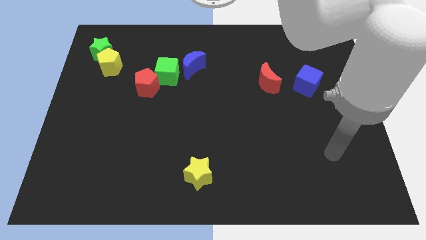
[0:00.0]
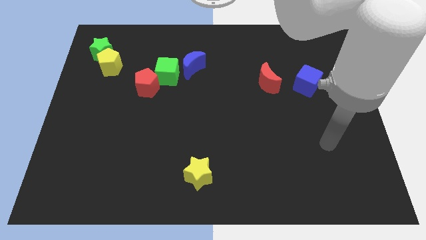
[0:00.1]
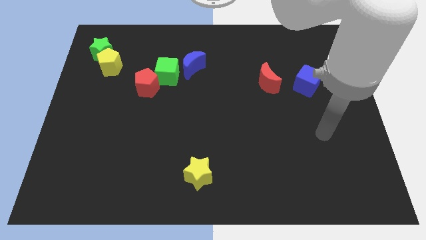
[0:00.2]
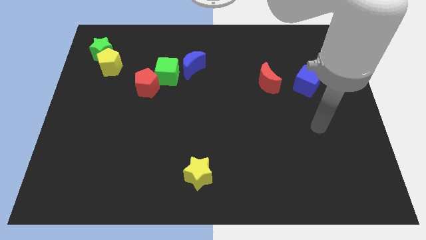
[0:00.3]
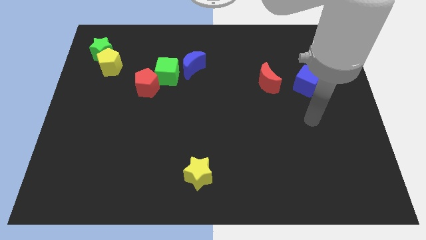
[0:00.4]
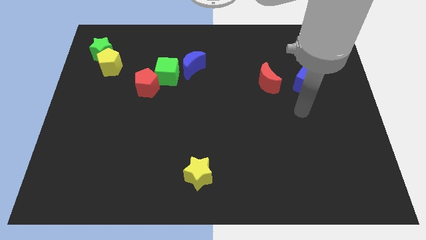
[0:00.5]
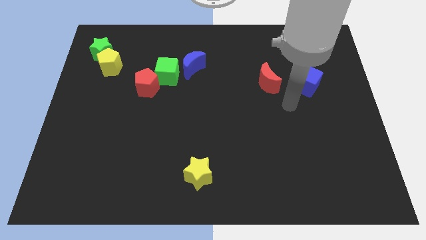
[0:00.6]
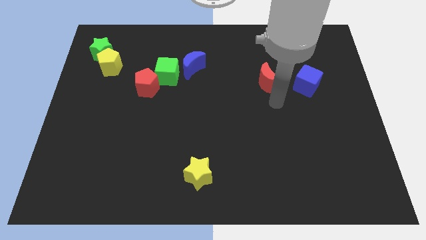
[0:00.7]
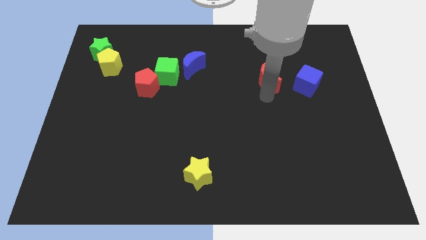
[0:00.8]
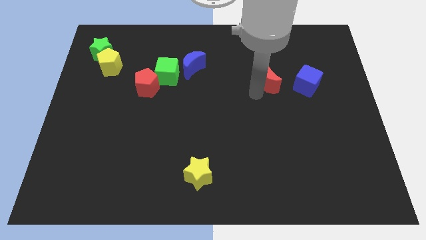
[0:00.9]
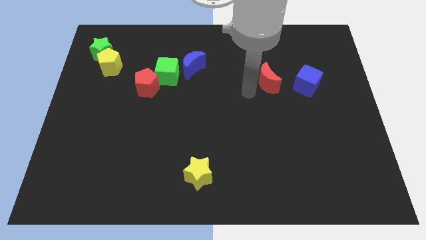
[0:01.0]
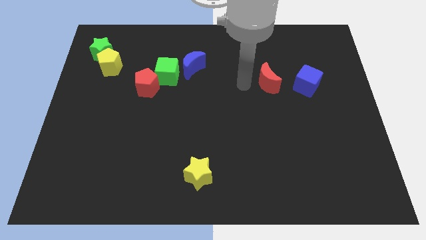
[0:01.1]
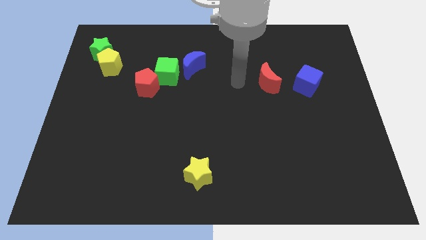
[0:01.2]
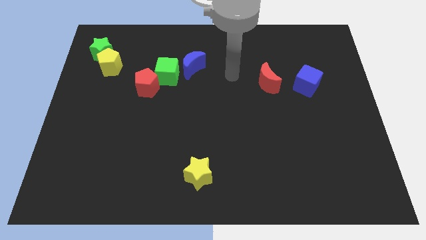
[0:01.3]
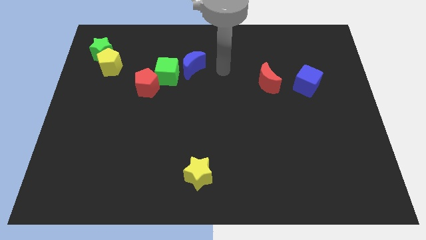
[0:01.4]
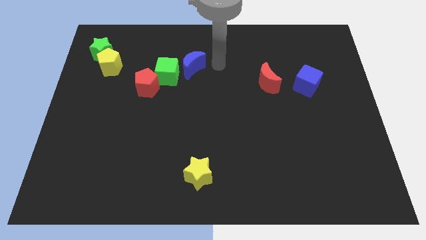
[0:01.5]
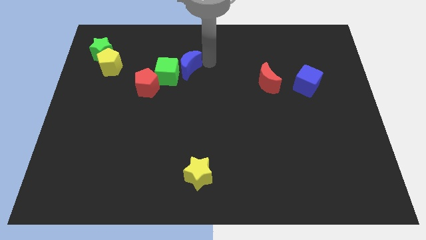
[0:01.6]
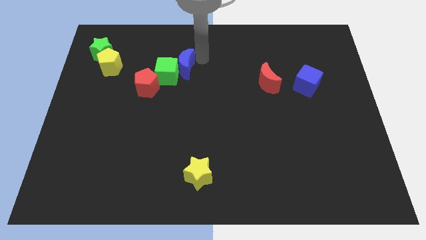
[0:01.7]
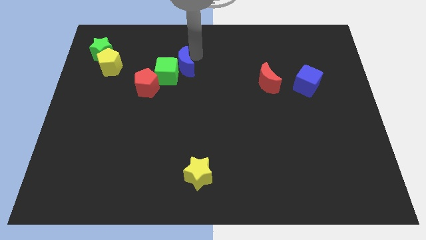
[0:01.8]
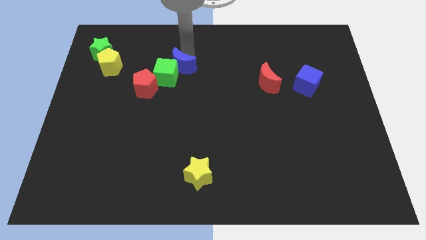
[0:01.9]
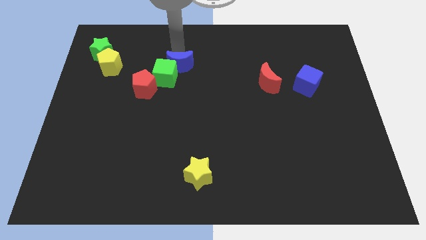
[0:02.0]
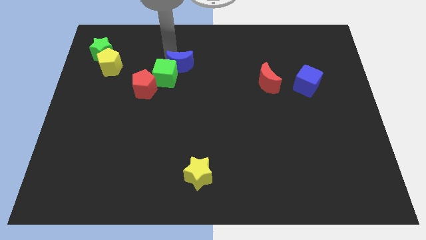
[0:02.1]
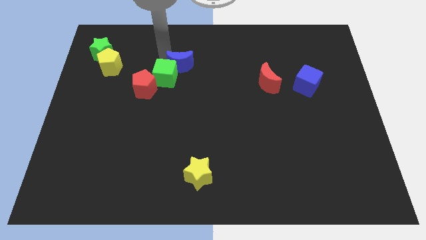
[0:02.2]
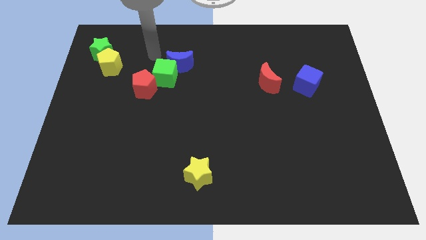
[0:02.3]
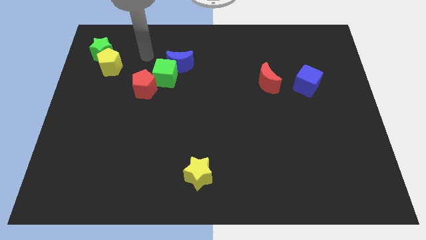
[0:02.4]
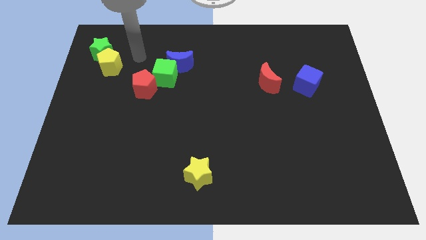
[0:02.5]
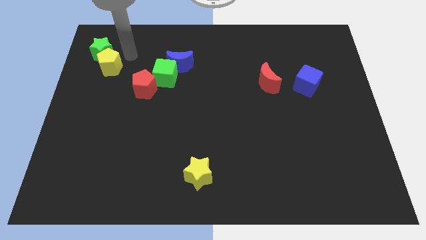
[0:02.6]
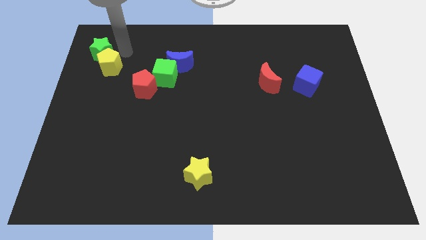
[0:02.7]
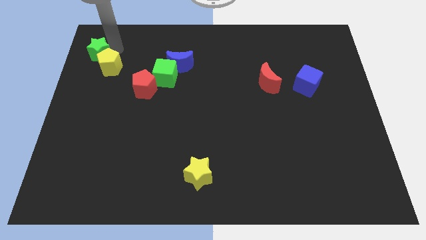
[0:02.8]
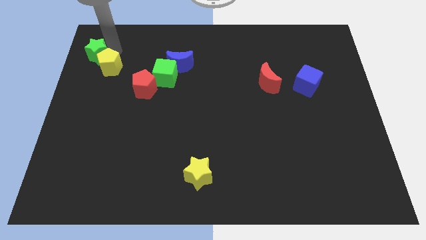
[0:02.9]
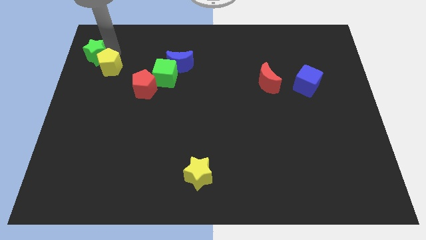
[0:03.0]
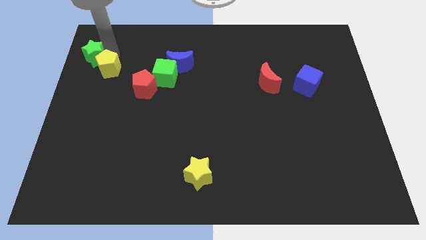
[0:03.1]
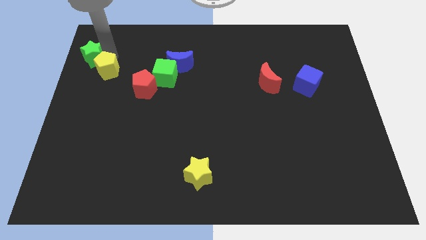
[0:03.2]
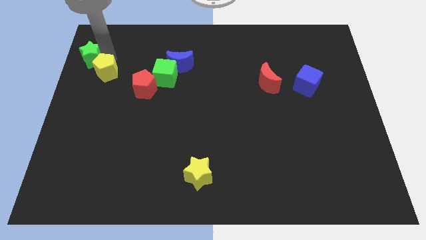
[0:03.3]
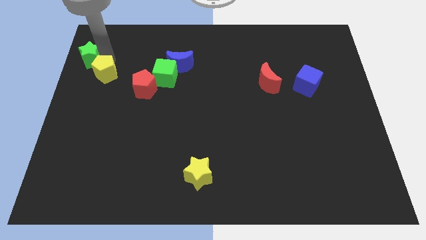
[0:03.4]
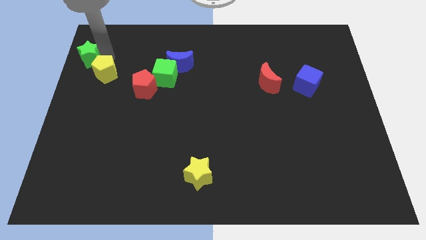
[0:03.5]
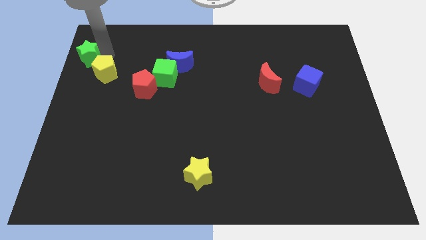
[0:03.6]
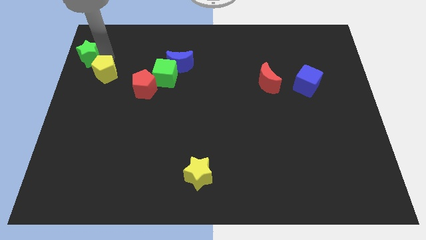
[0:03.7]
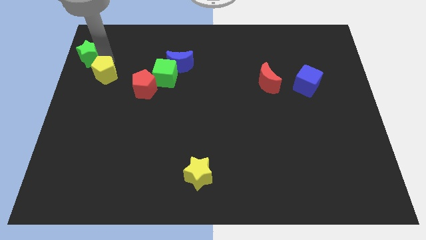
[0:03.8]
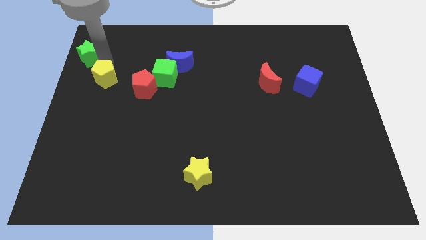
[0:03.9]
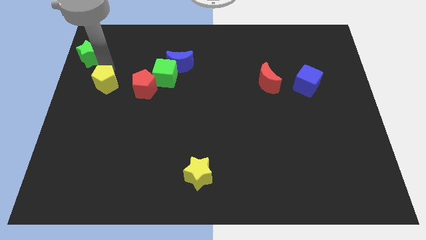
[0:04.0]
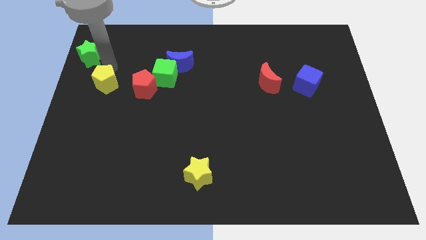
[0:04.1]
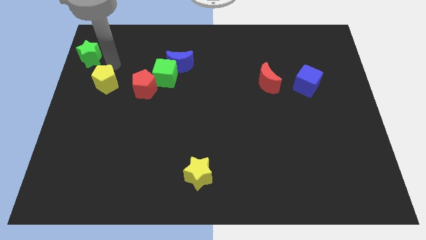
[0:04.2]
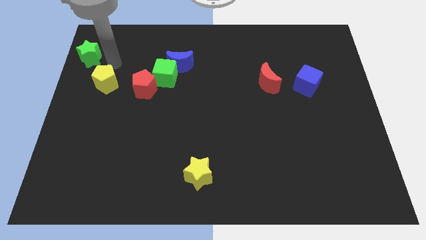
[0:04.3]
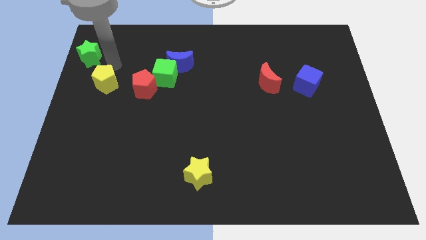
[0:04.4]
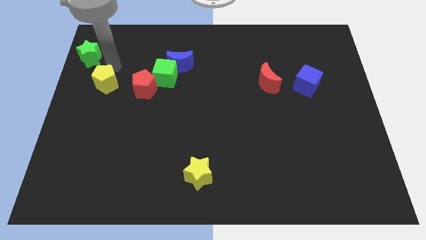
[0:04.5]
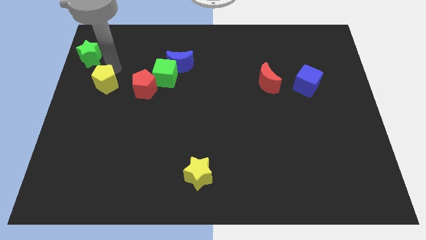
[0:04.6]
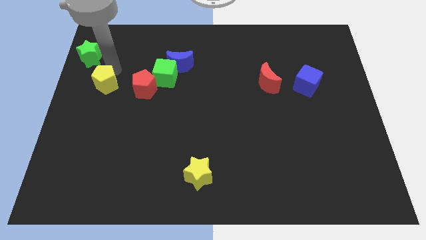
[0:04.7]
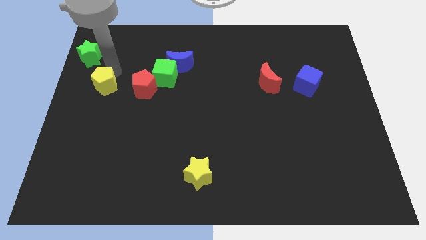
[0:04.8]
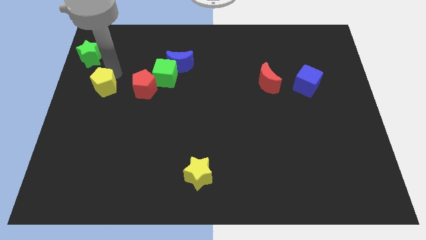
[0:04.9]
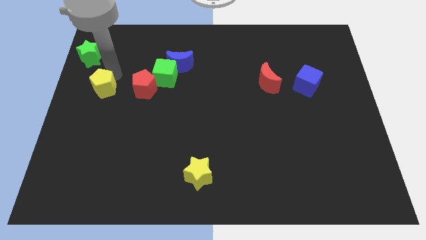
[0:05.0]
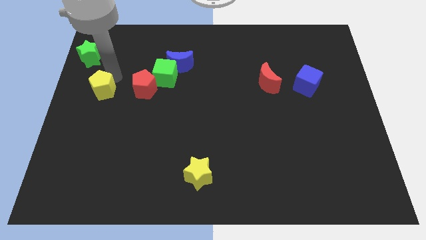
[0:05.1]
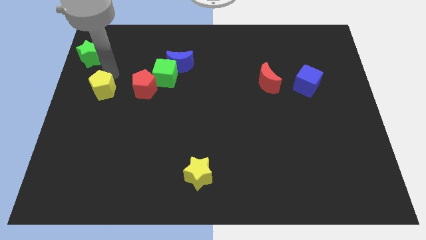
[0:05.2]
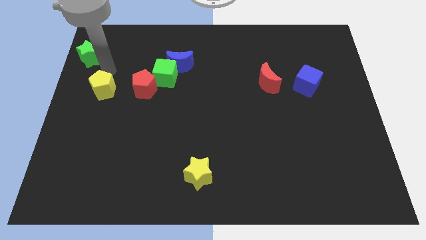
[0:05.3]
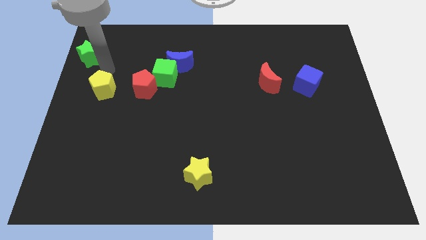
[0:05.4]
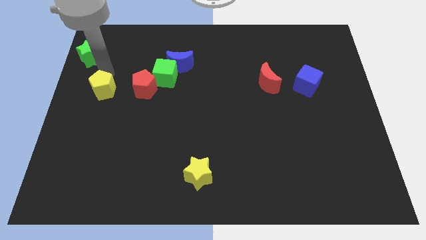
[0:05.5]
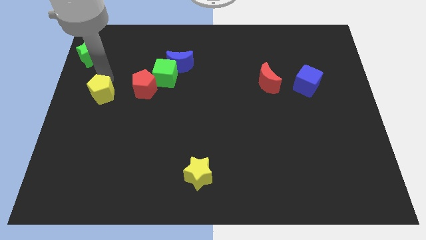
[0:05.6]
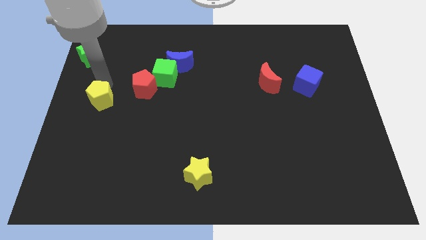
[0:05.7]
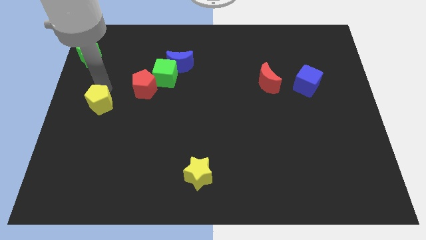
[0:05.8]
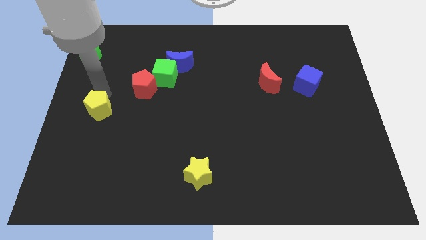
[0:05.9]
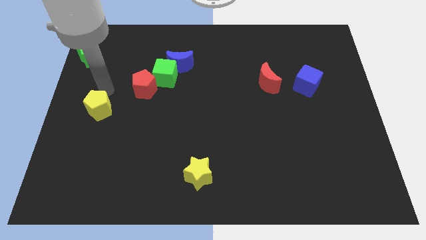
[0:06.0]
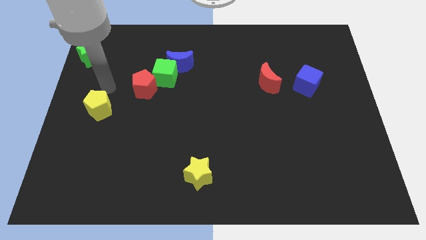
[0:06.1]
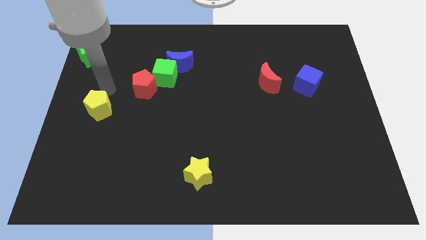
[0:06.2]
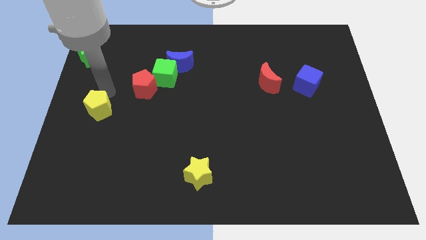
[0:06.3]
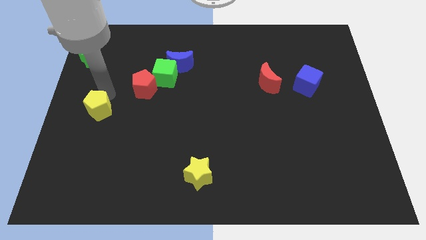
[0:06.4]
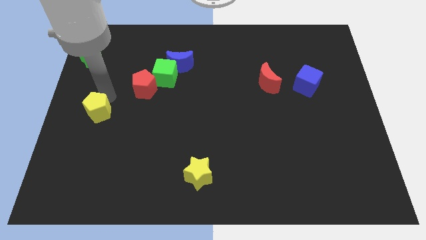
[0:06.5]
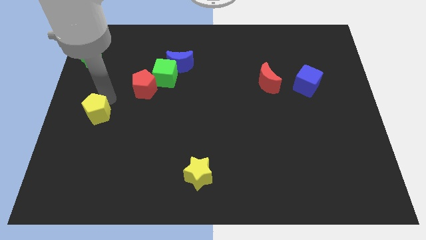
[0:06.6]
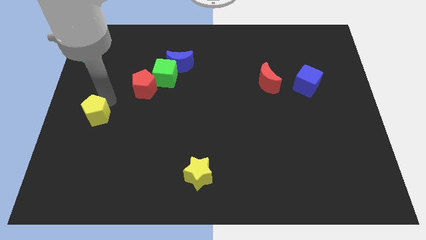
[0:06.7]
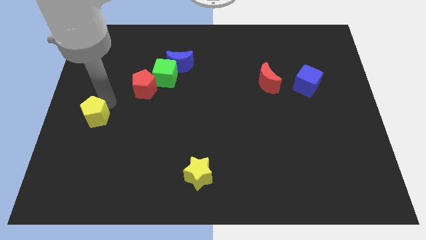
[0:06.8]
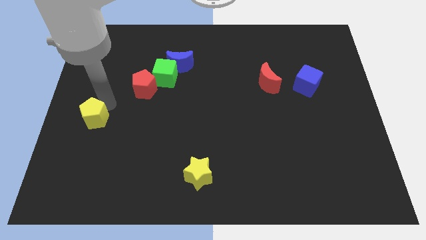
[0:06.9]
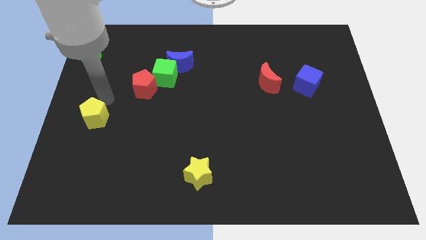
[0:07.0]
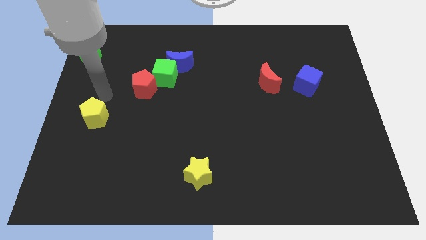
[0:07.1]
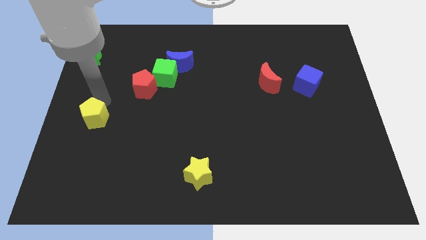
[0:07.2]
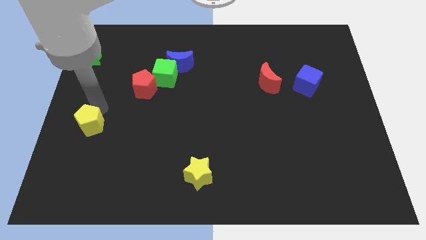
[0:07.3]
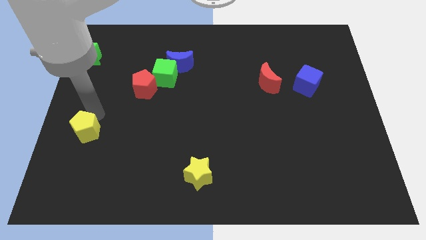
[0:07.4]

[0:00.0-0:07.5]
slide the yellow pentagon down

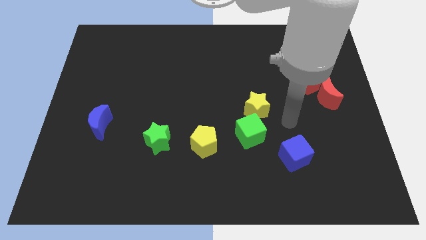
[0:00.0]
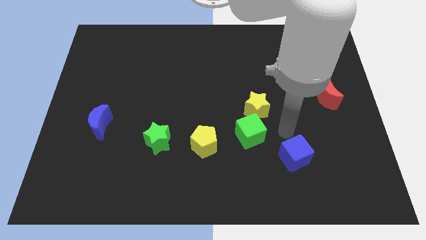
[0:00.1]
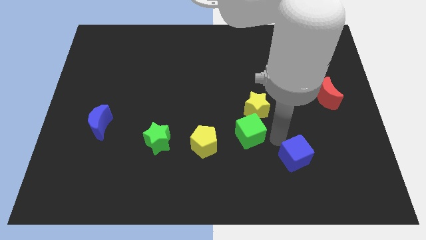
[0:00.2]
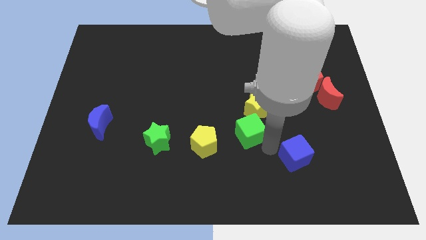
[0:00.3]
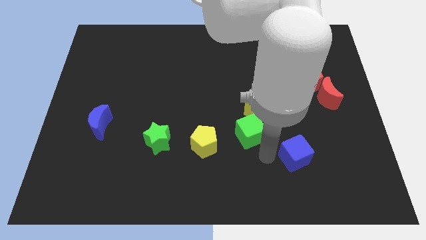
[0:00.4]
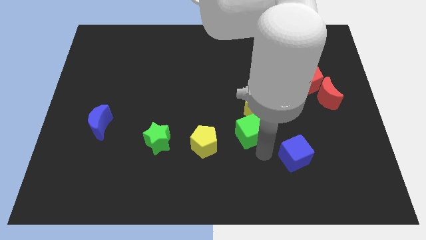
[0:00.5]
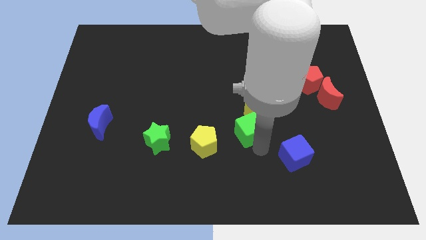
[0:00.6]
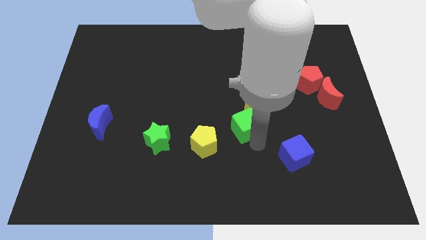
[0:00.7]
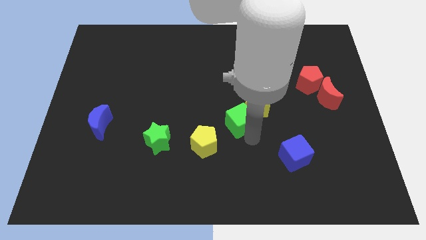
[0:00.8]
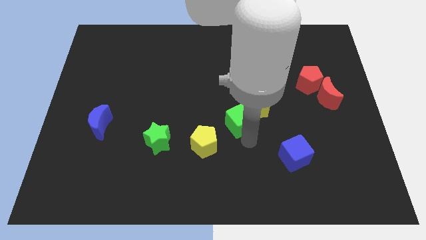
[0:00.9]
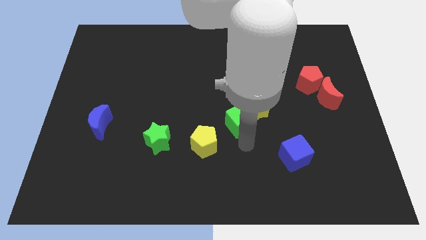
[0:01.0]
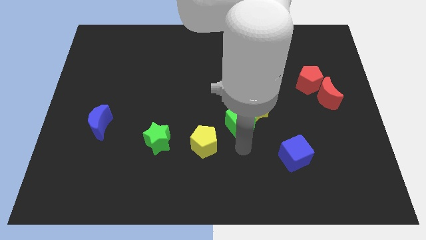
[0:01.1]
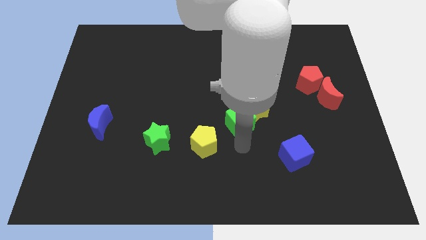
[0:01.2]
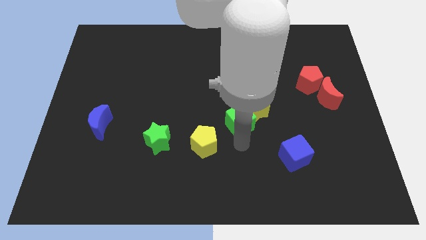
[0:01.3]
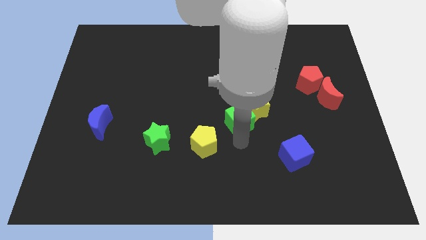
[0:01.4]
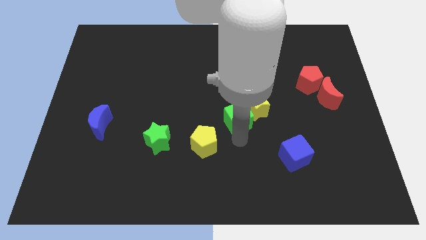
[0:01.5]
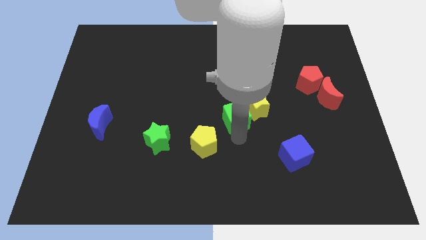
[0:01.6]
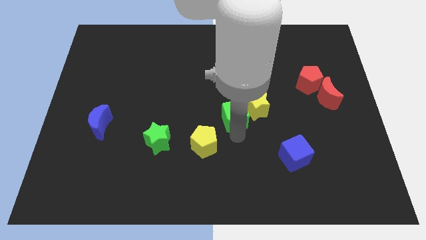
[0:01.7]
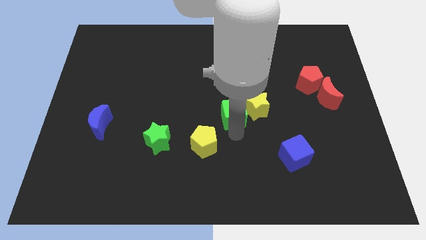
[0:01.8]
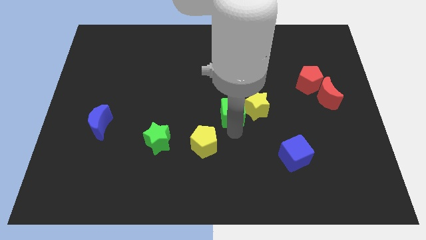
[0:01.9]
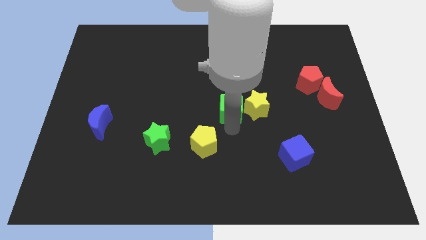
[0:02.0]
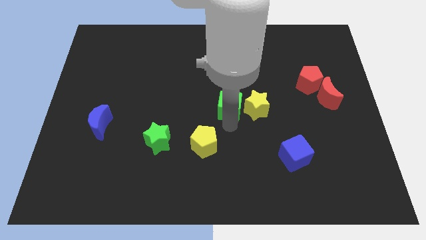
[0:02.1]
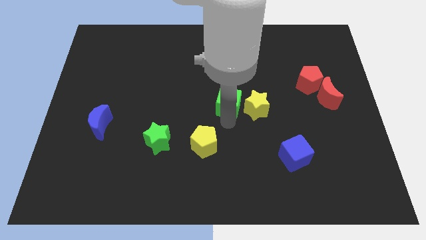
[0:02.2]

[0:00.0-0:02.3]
slightly move the green cube upwards
